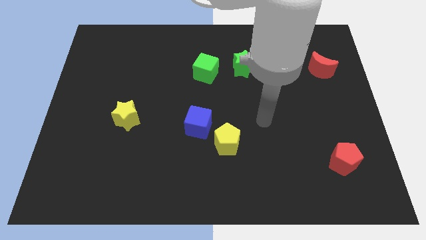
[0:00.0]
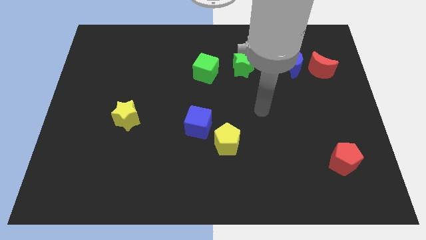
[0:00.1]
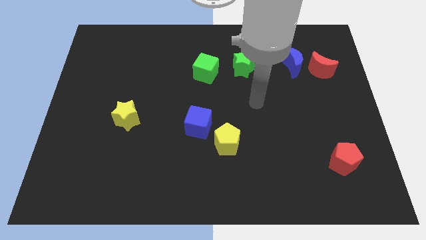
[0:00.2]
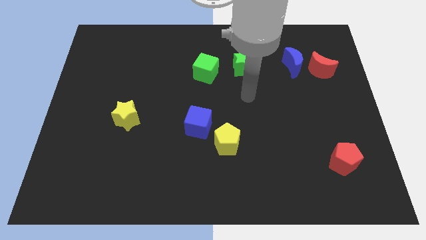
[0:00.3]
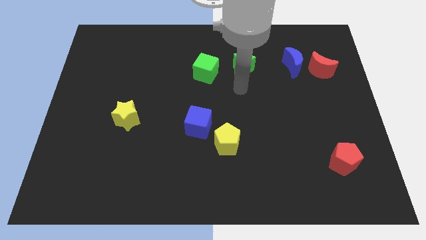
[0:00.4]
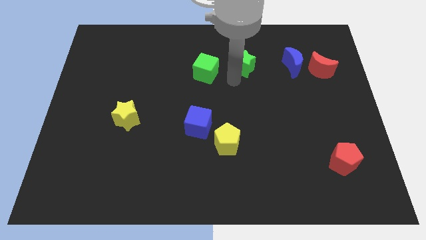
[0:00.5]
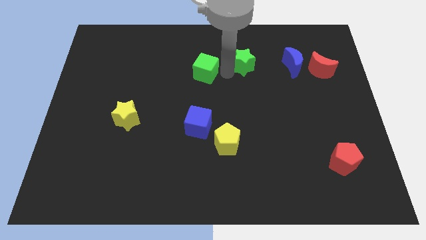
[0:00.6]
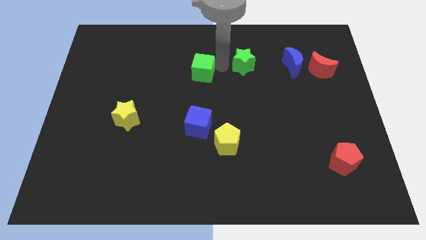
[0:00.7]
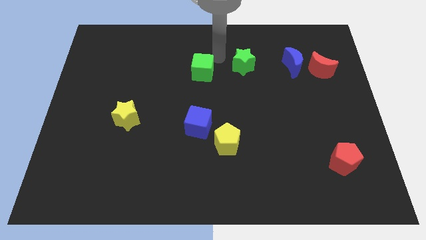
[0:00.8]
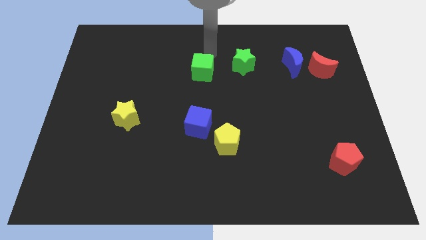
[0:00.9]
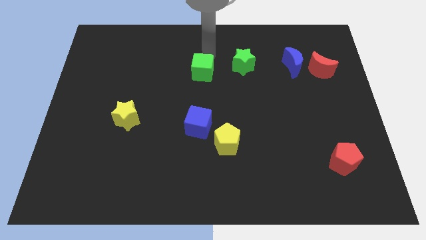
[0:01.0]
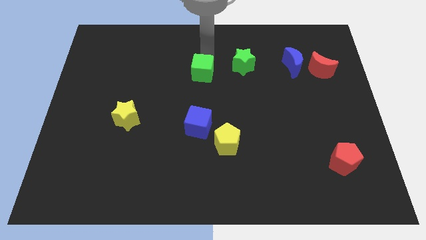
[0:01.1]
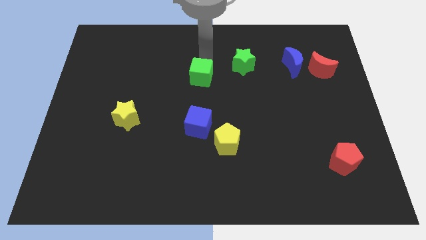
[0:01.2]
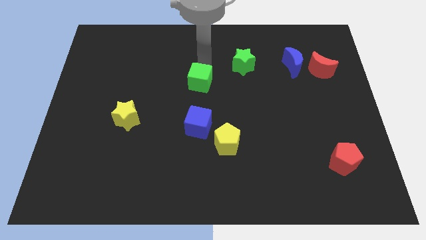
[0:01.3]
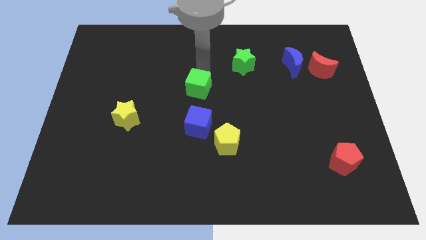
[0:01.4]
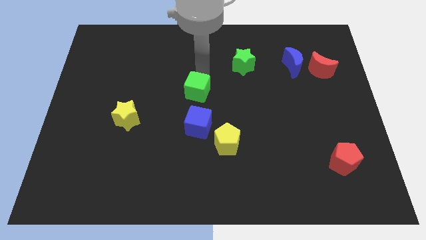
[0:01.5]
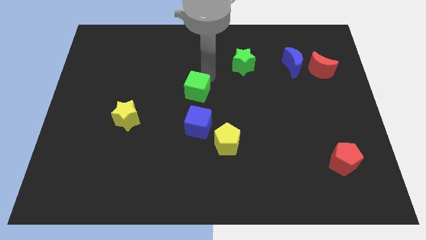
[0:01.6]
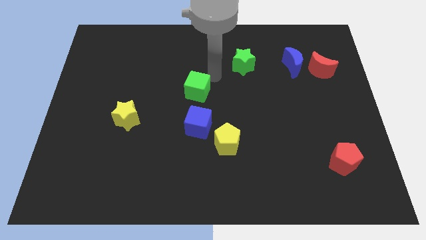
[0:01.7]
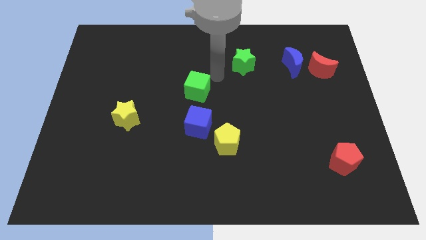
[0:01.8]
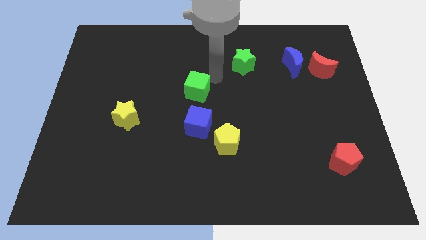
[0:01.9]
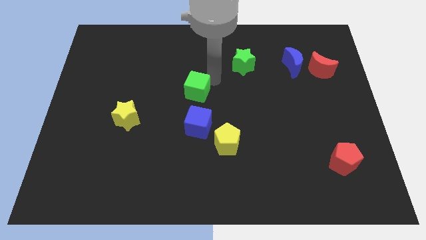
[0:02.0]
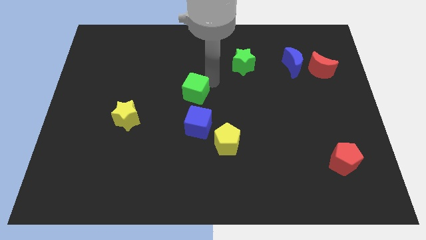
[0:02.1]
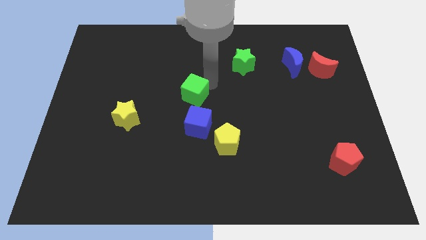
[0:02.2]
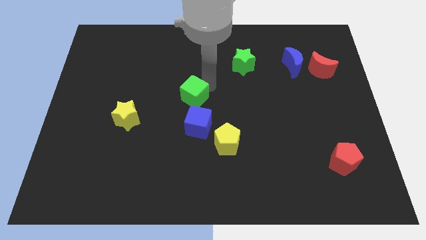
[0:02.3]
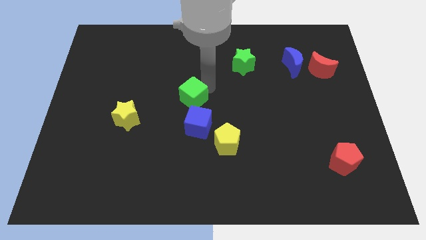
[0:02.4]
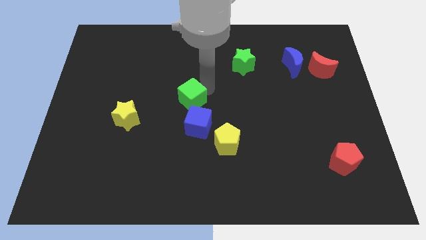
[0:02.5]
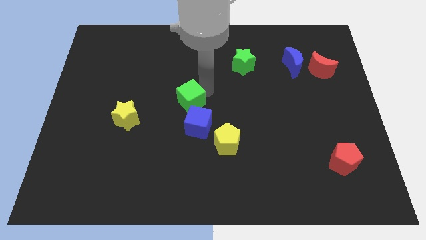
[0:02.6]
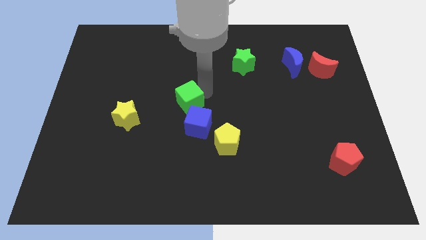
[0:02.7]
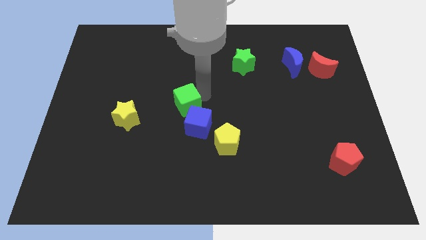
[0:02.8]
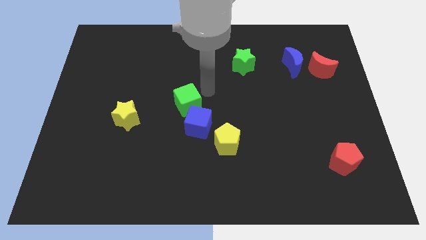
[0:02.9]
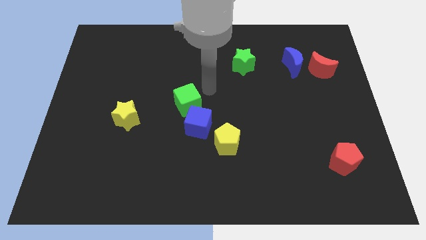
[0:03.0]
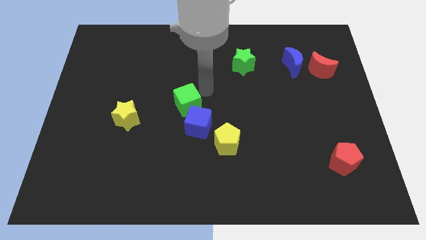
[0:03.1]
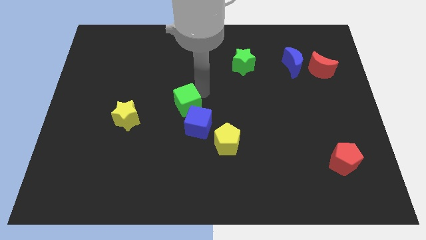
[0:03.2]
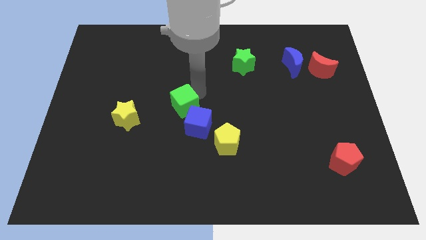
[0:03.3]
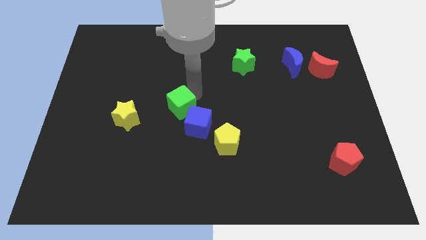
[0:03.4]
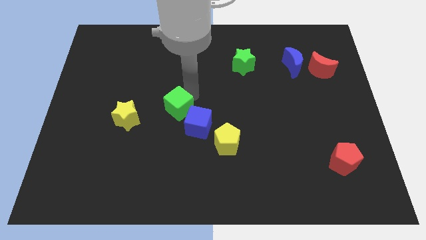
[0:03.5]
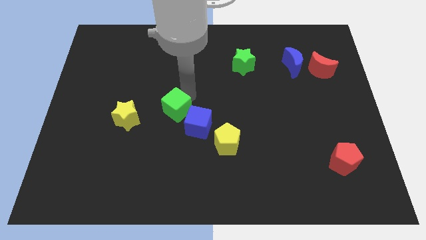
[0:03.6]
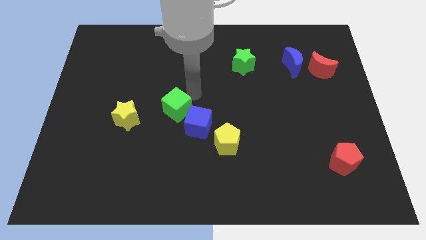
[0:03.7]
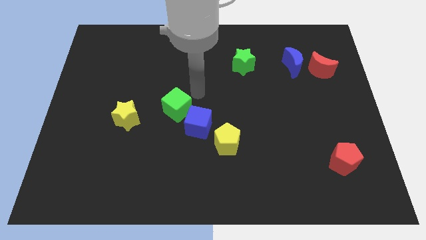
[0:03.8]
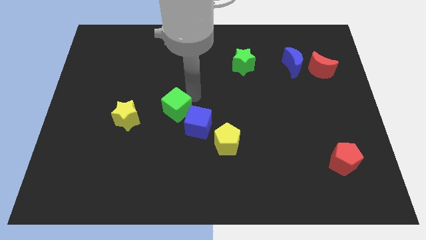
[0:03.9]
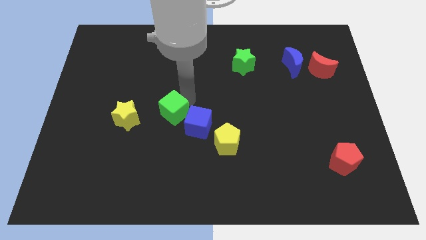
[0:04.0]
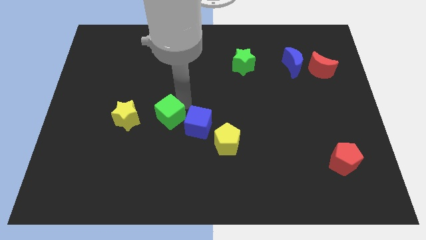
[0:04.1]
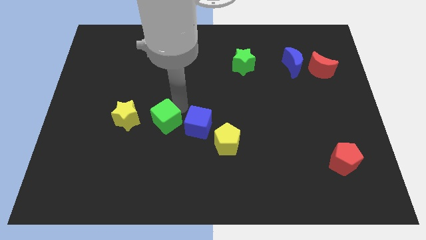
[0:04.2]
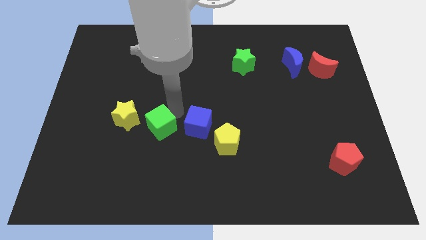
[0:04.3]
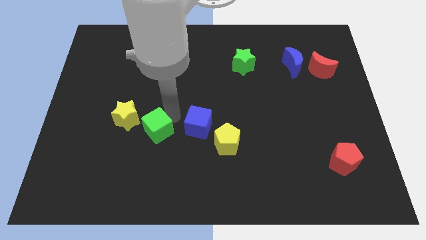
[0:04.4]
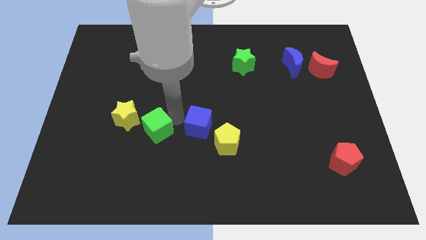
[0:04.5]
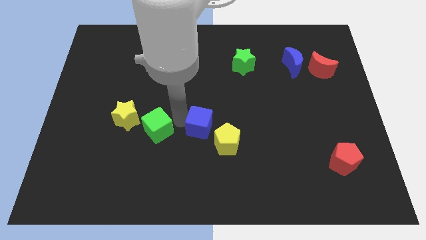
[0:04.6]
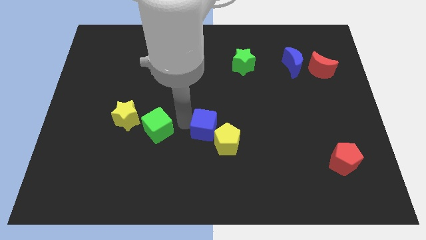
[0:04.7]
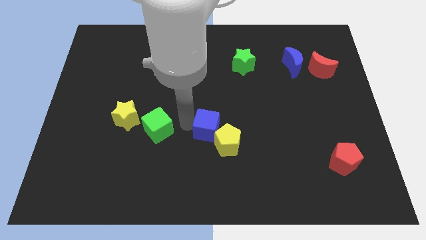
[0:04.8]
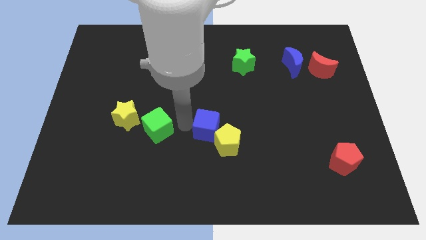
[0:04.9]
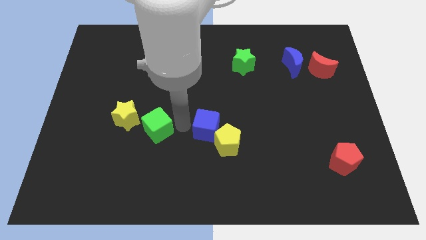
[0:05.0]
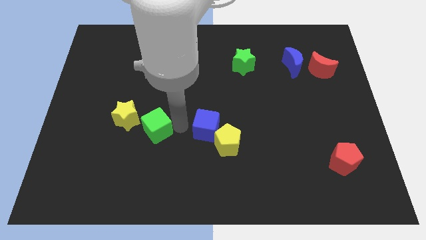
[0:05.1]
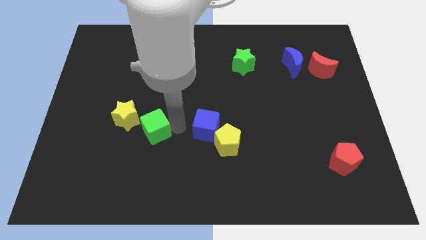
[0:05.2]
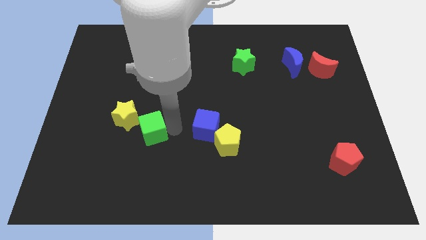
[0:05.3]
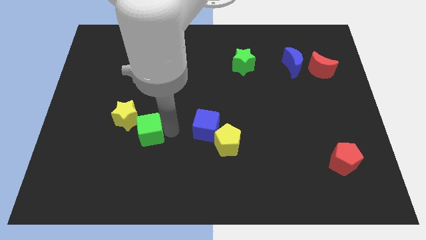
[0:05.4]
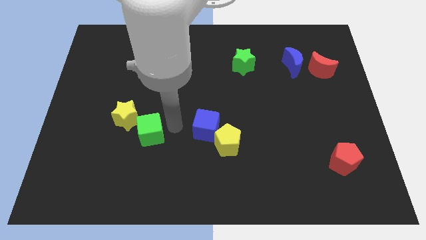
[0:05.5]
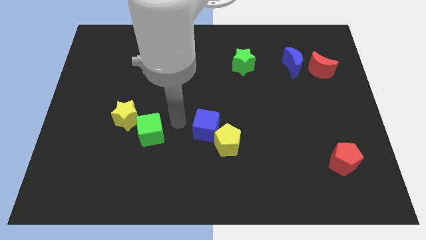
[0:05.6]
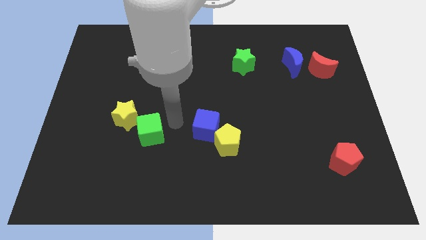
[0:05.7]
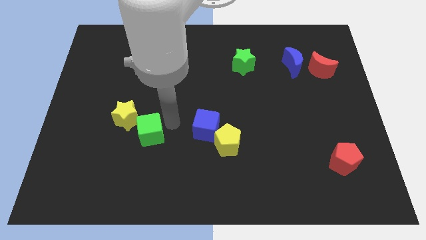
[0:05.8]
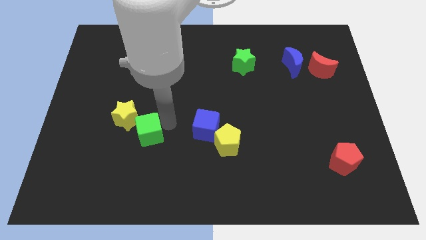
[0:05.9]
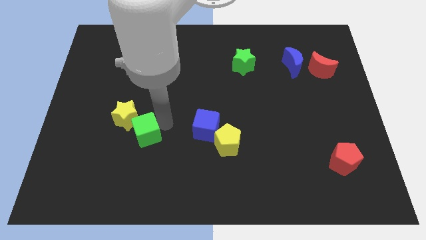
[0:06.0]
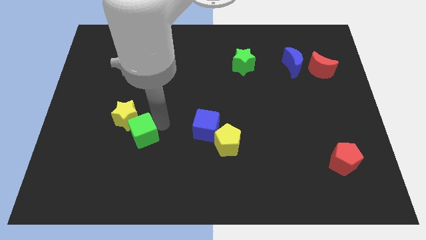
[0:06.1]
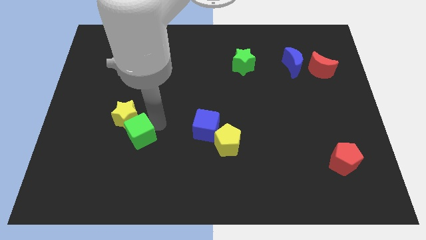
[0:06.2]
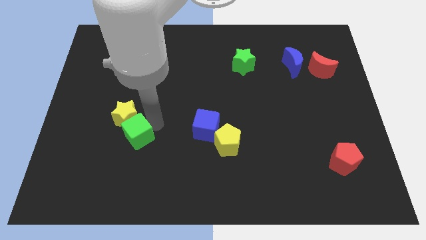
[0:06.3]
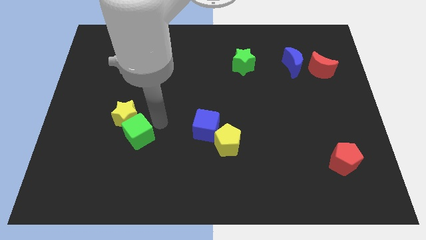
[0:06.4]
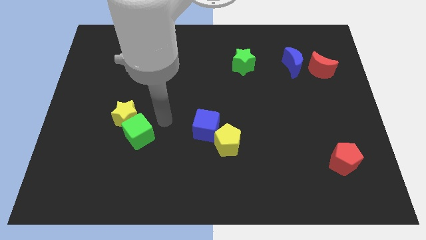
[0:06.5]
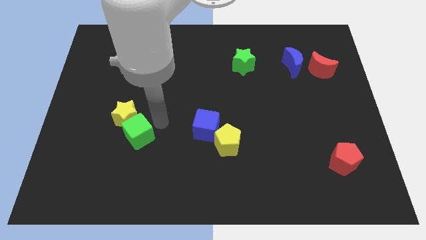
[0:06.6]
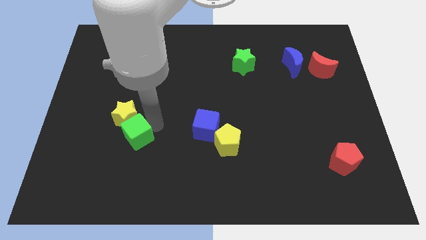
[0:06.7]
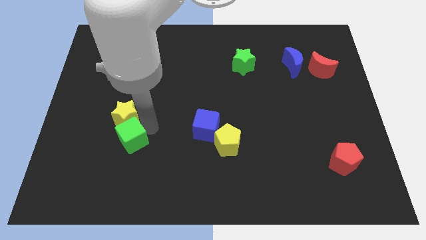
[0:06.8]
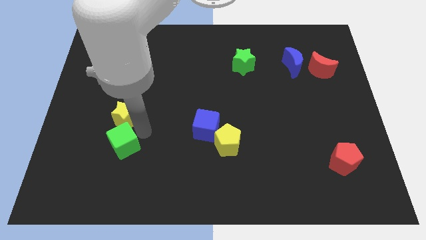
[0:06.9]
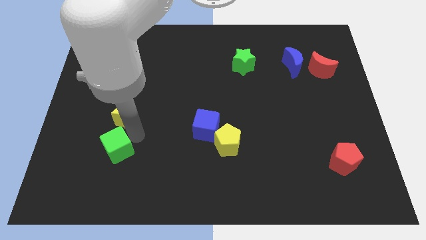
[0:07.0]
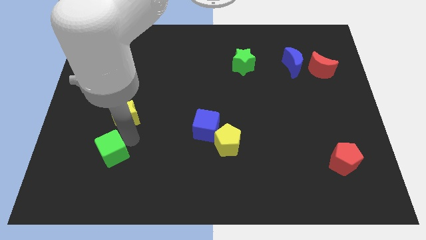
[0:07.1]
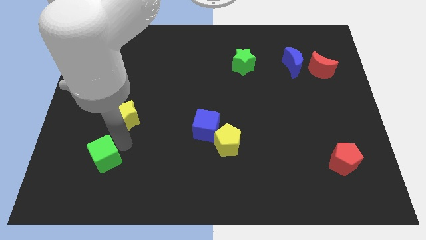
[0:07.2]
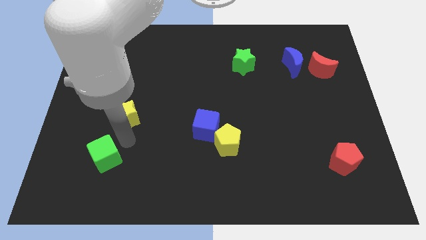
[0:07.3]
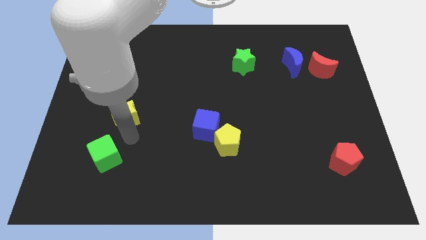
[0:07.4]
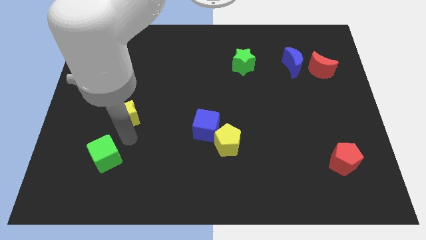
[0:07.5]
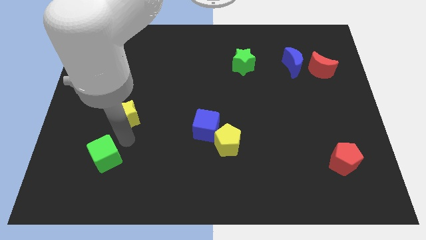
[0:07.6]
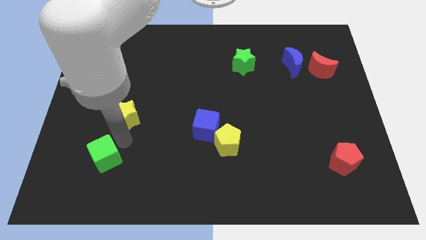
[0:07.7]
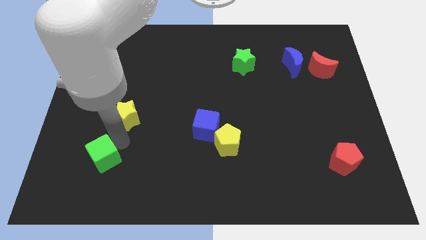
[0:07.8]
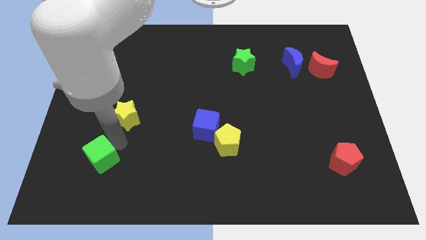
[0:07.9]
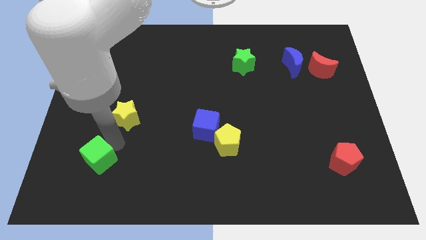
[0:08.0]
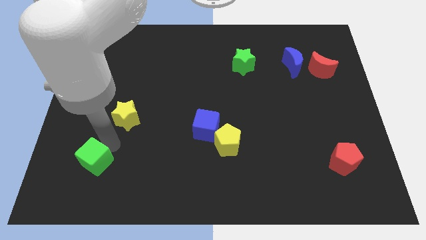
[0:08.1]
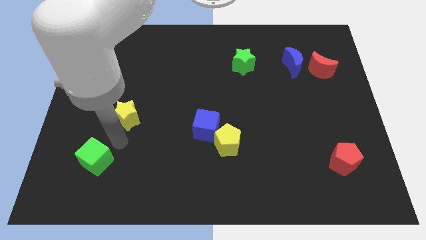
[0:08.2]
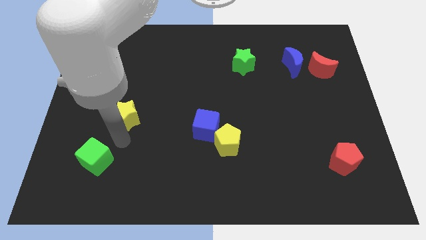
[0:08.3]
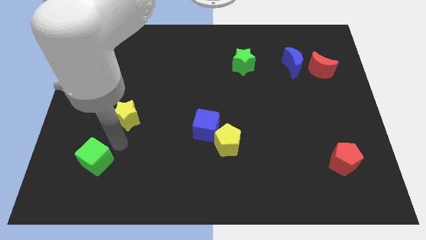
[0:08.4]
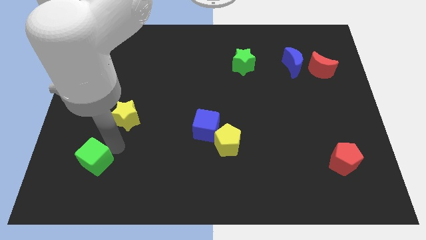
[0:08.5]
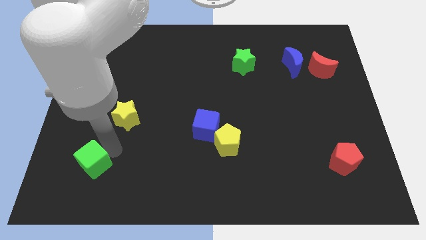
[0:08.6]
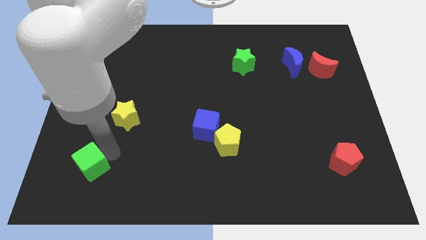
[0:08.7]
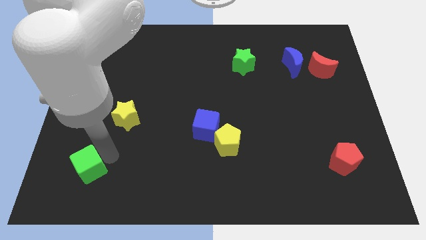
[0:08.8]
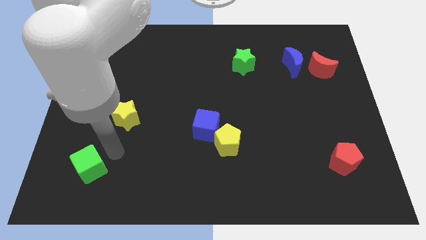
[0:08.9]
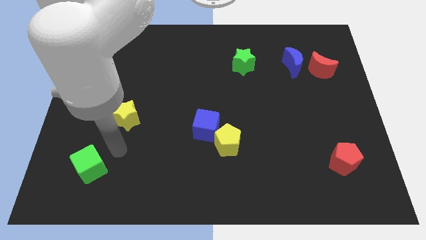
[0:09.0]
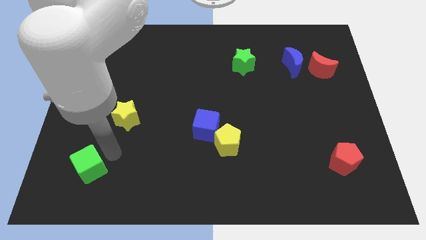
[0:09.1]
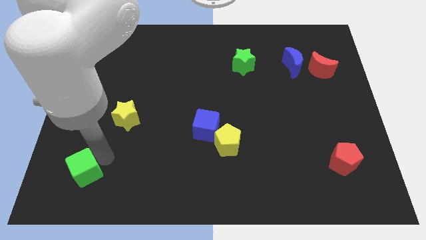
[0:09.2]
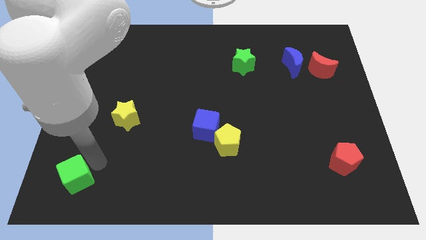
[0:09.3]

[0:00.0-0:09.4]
put the green cube to the bottom left of the board
